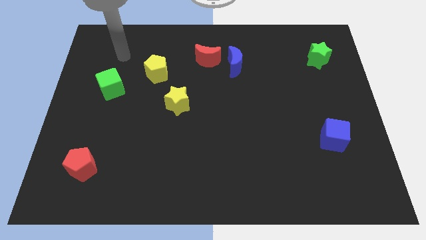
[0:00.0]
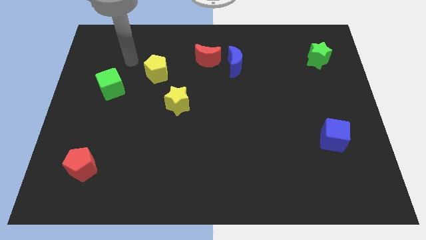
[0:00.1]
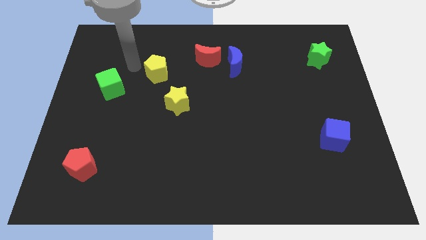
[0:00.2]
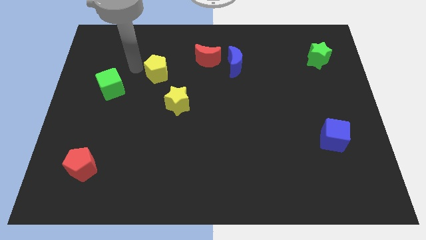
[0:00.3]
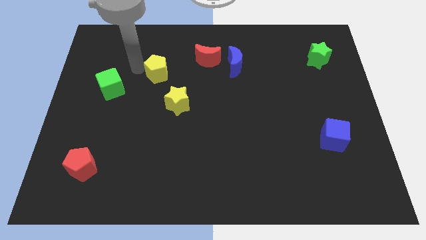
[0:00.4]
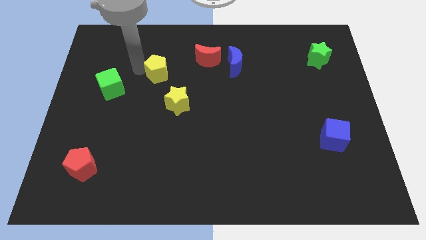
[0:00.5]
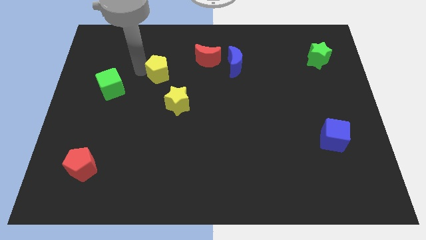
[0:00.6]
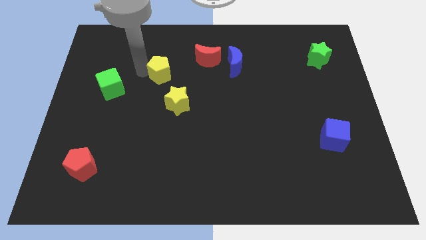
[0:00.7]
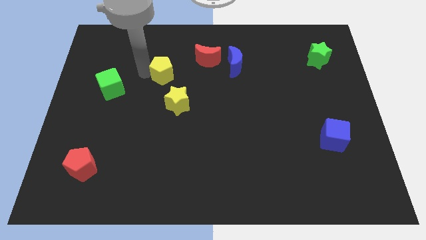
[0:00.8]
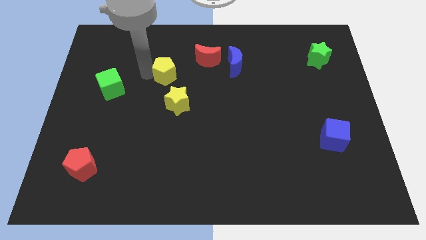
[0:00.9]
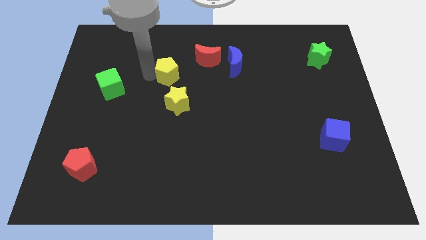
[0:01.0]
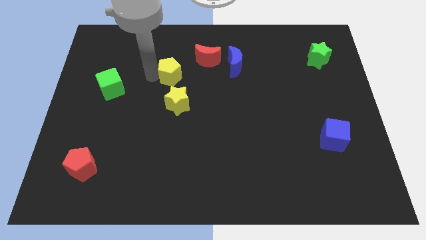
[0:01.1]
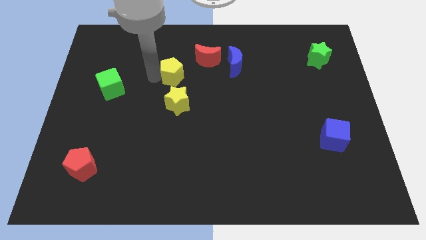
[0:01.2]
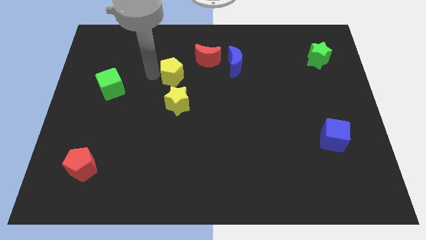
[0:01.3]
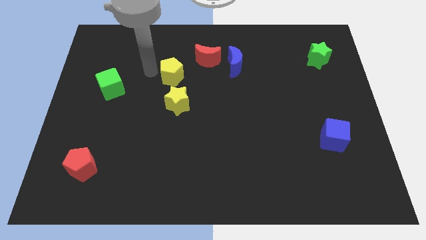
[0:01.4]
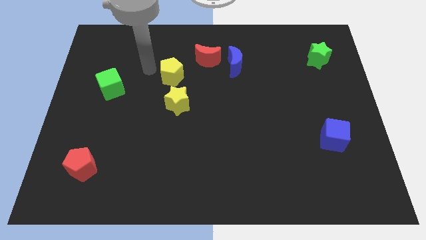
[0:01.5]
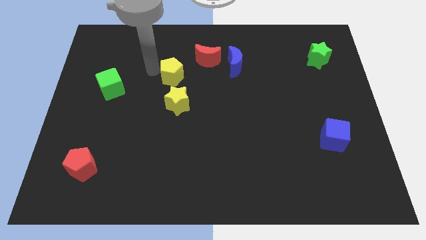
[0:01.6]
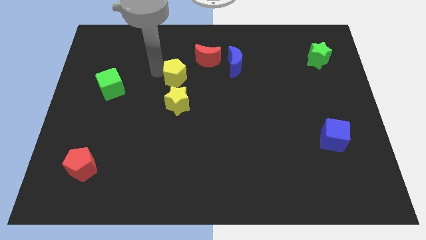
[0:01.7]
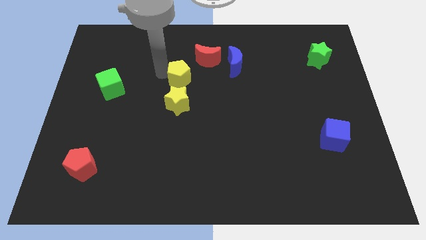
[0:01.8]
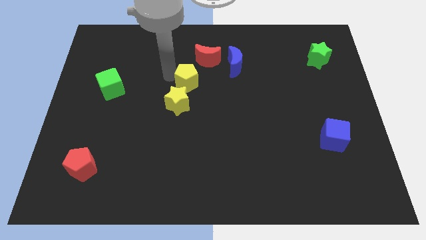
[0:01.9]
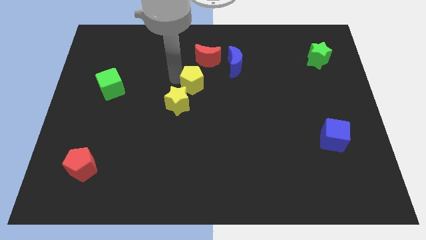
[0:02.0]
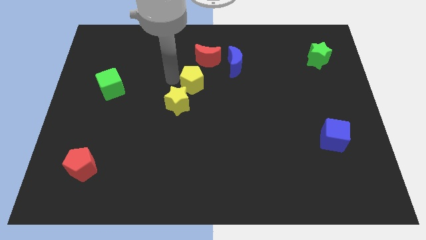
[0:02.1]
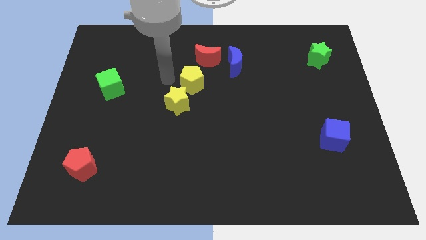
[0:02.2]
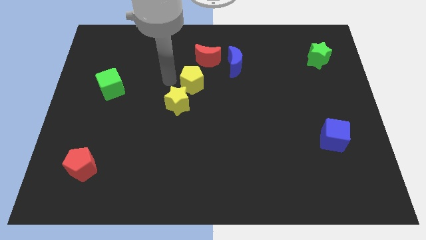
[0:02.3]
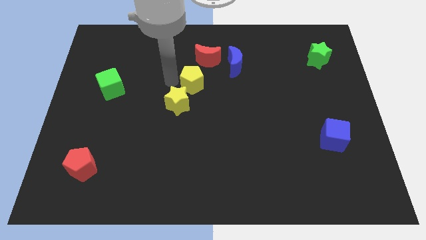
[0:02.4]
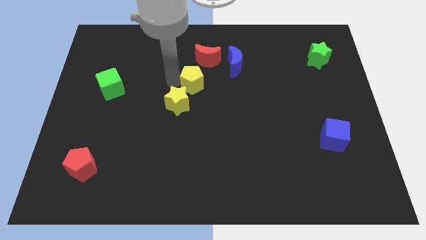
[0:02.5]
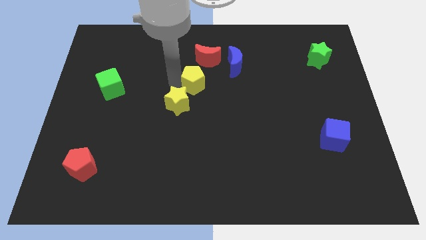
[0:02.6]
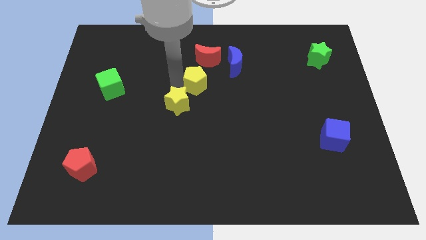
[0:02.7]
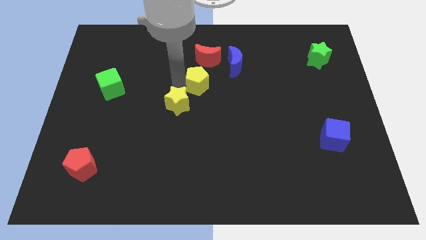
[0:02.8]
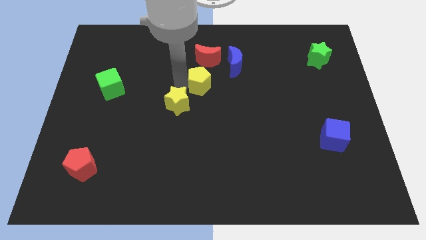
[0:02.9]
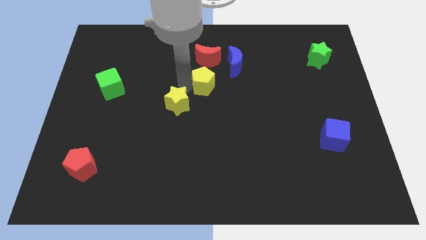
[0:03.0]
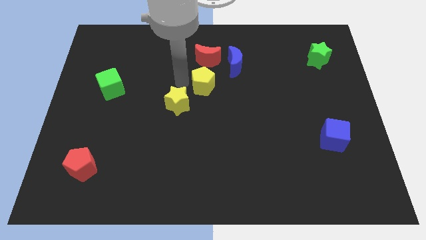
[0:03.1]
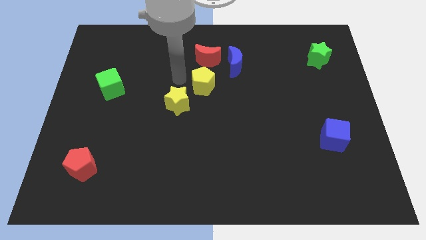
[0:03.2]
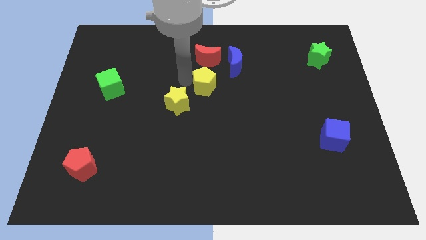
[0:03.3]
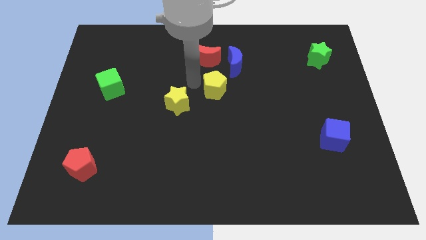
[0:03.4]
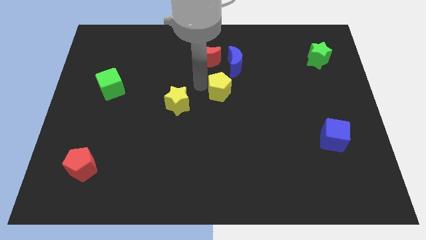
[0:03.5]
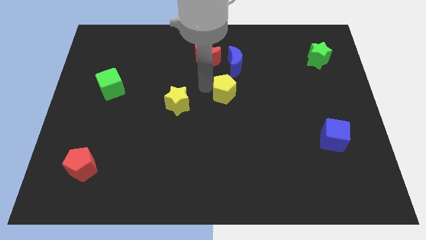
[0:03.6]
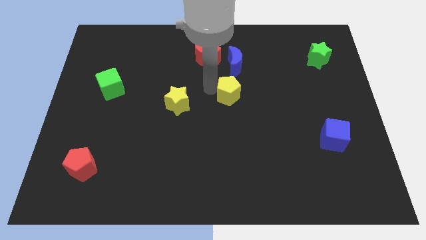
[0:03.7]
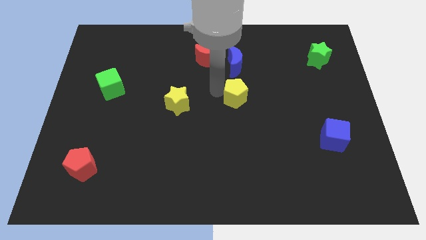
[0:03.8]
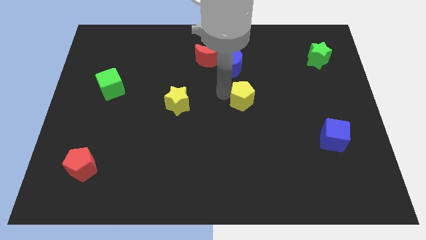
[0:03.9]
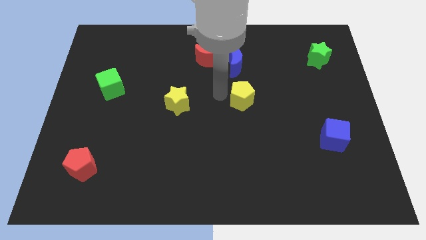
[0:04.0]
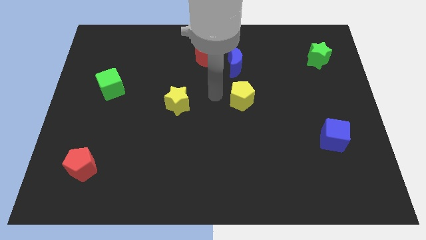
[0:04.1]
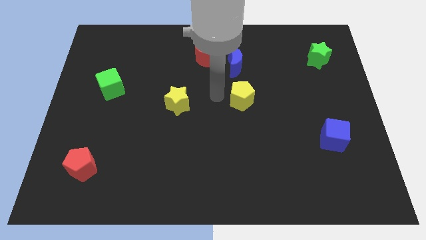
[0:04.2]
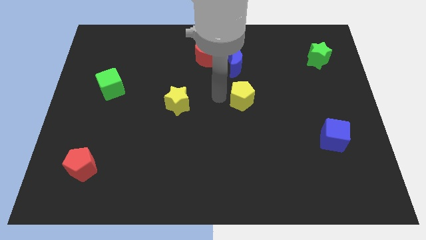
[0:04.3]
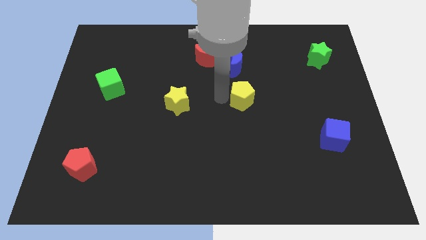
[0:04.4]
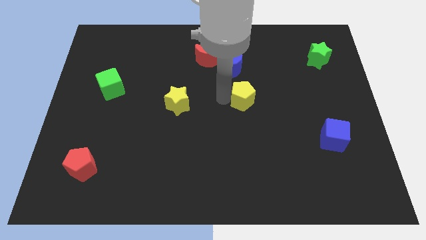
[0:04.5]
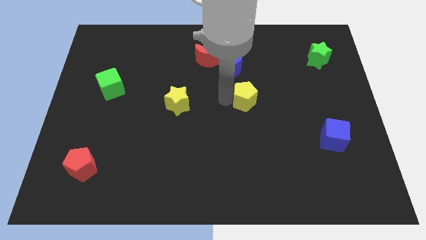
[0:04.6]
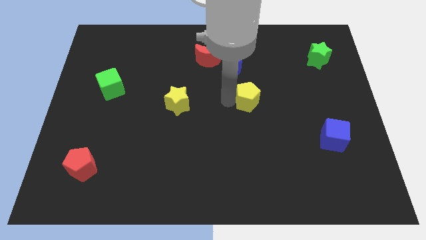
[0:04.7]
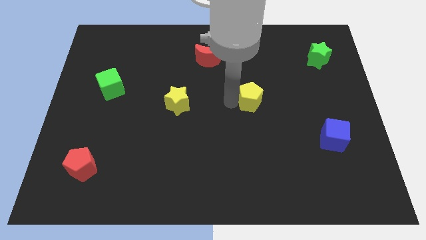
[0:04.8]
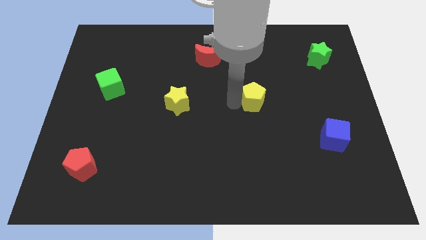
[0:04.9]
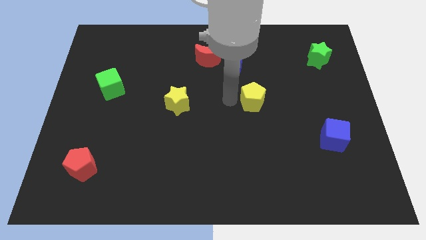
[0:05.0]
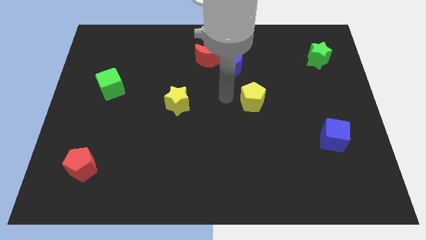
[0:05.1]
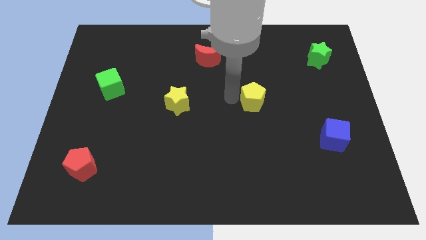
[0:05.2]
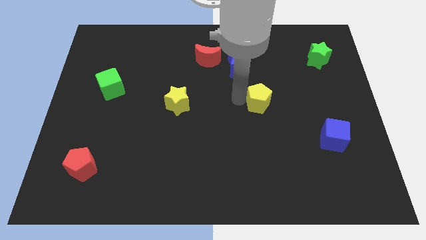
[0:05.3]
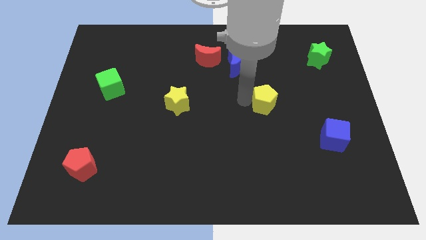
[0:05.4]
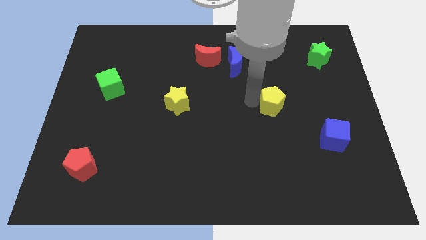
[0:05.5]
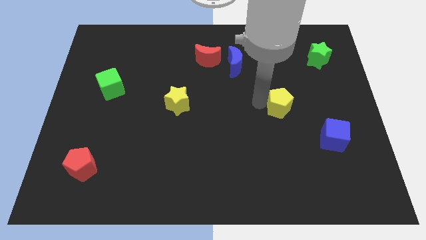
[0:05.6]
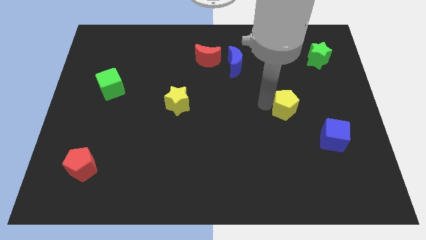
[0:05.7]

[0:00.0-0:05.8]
move the yellow pentagon to the top left of the blue cube

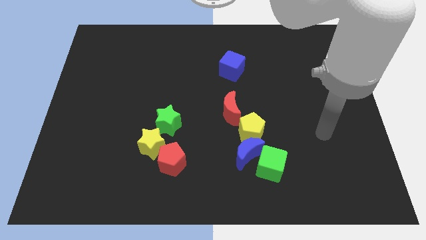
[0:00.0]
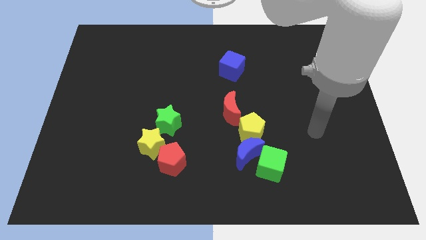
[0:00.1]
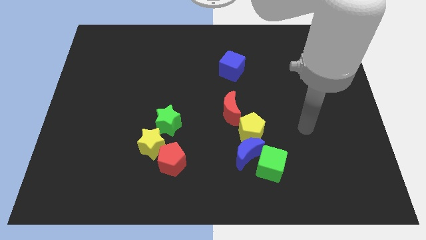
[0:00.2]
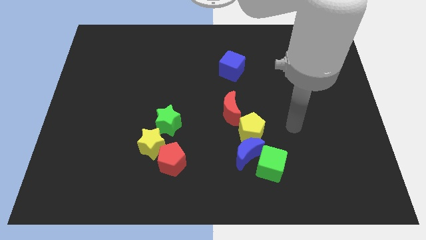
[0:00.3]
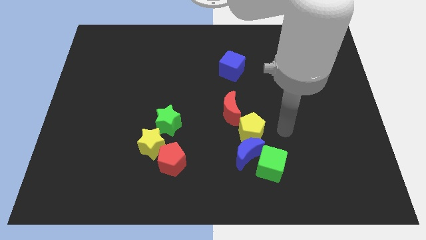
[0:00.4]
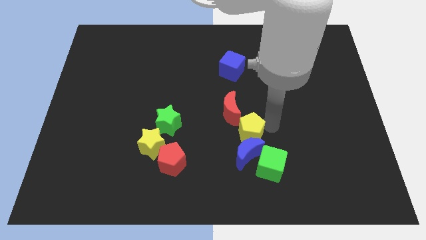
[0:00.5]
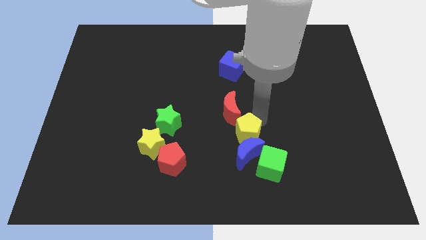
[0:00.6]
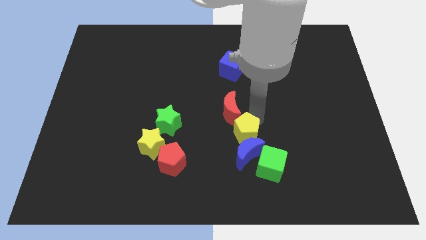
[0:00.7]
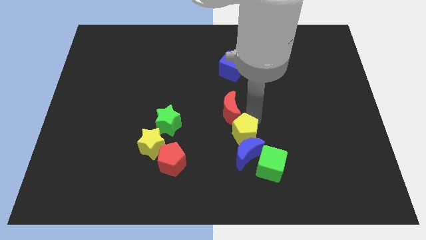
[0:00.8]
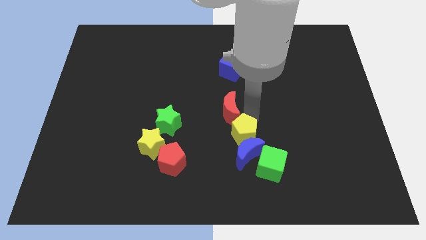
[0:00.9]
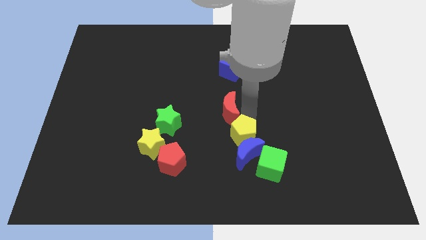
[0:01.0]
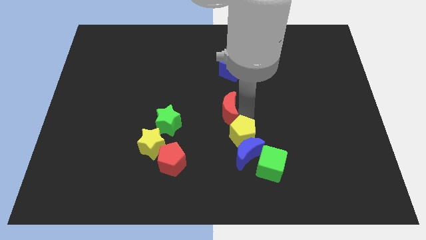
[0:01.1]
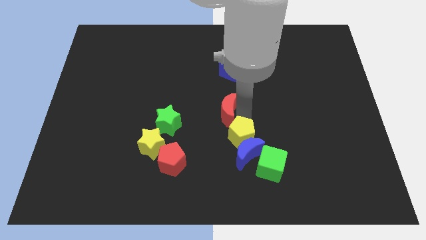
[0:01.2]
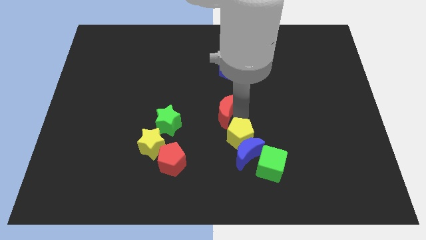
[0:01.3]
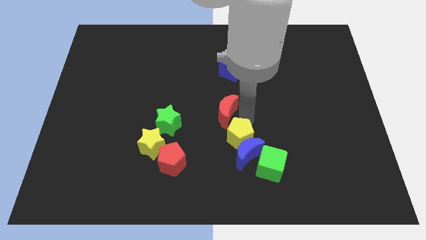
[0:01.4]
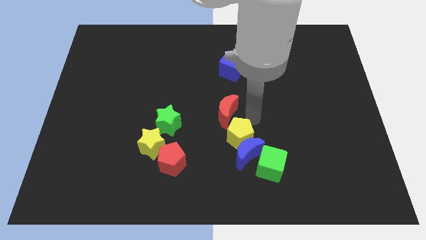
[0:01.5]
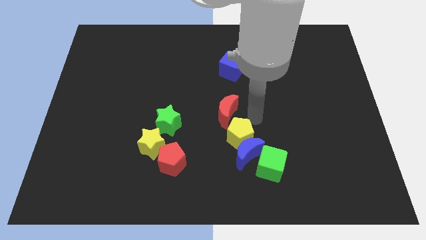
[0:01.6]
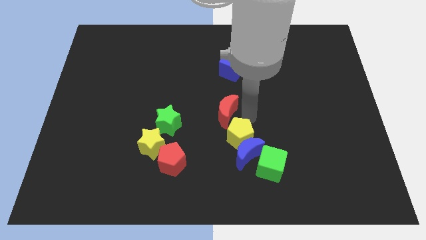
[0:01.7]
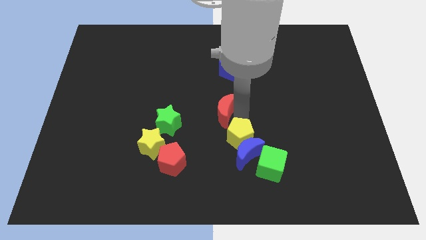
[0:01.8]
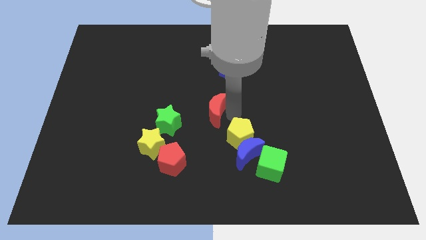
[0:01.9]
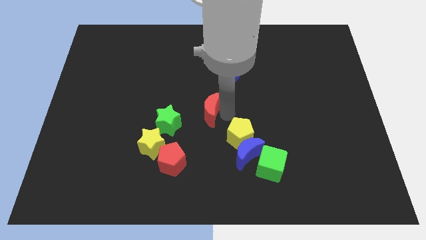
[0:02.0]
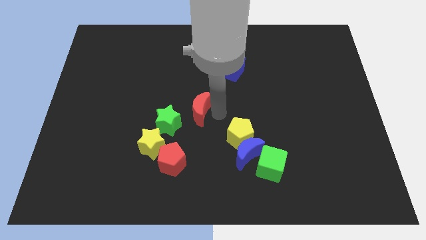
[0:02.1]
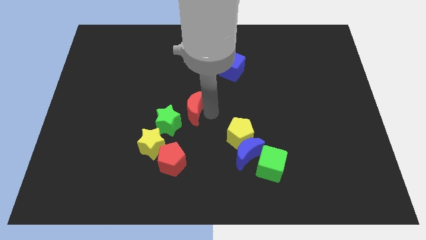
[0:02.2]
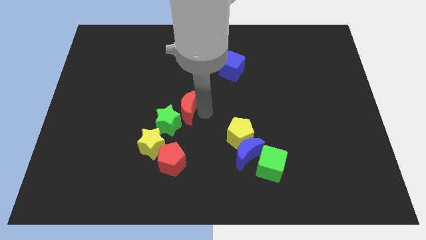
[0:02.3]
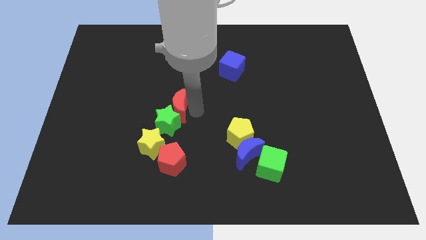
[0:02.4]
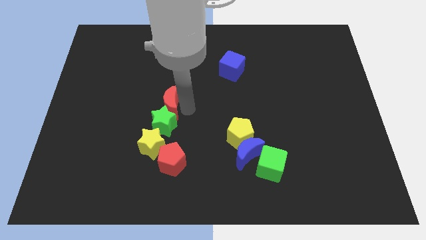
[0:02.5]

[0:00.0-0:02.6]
push the red moon to the top left of the green star
